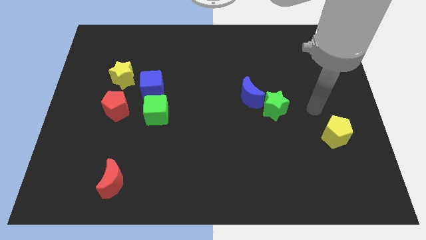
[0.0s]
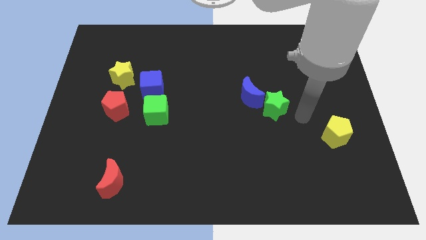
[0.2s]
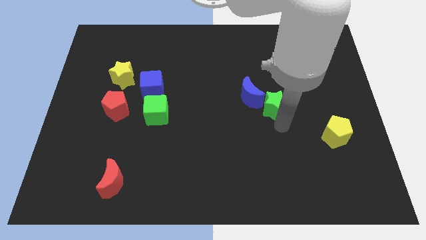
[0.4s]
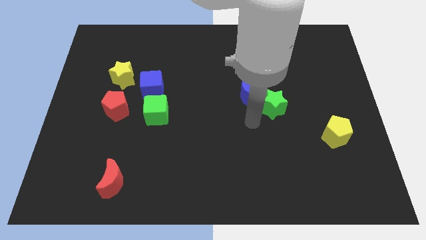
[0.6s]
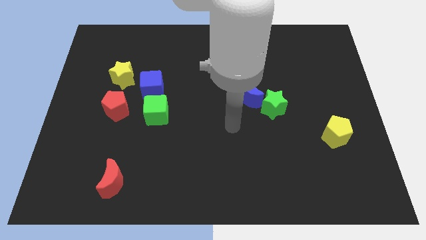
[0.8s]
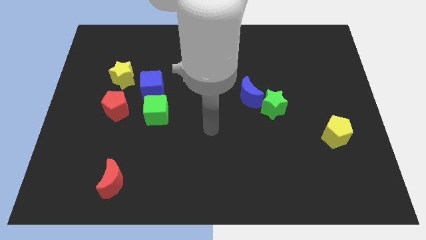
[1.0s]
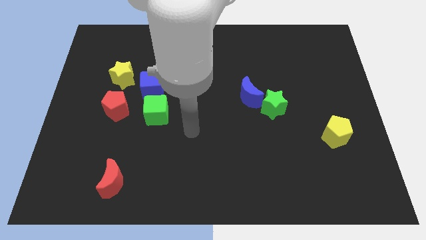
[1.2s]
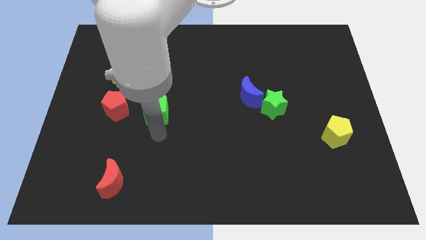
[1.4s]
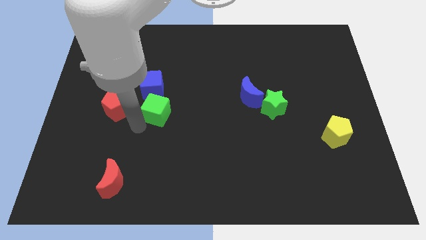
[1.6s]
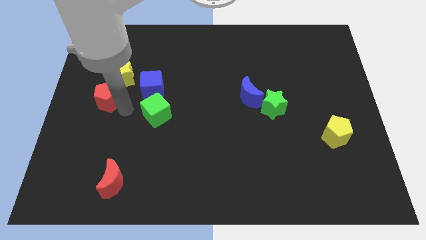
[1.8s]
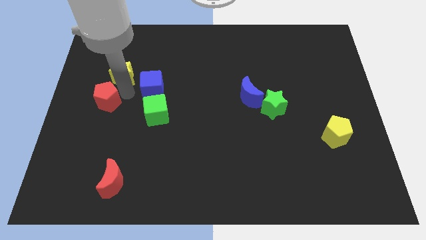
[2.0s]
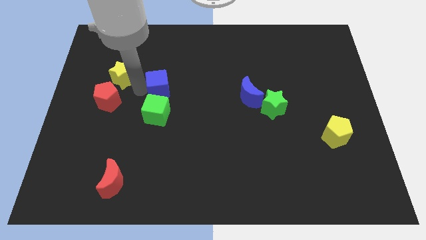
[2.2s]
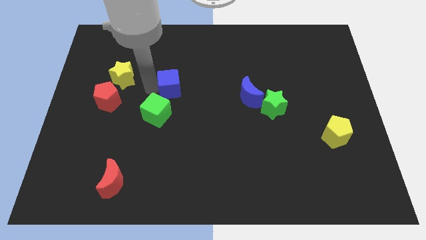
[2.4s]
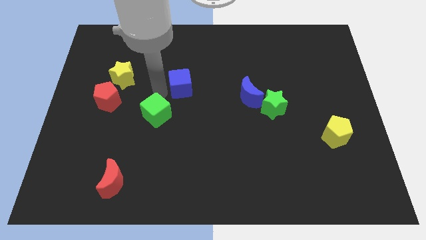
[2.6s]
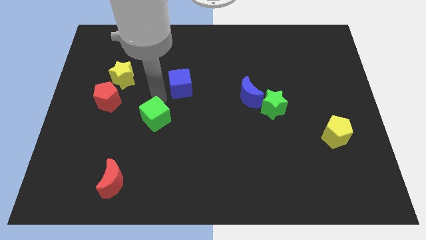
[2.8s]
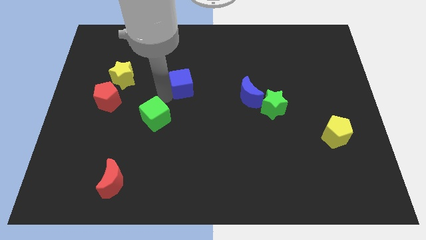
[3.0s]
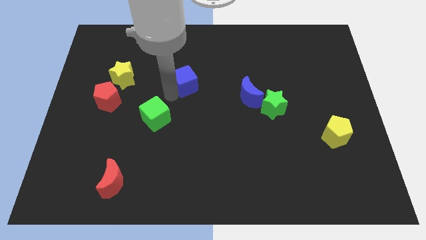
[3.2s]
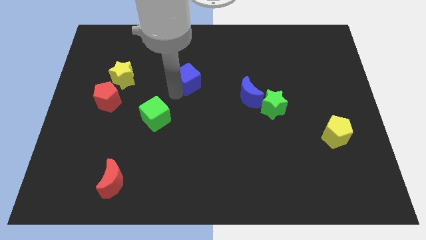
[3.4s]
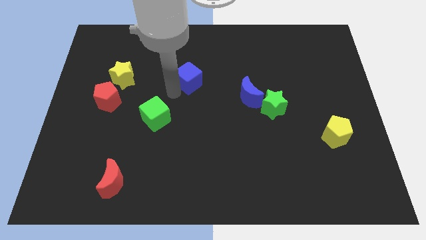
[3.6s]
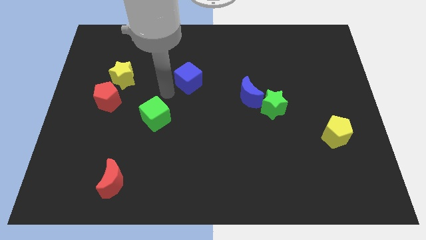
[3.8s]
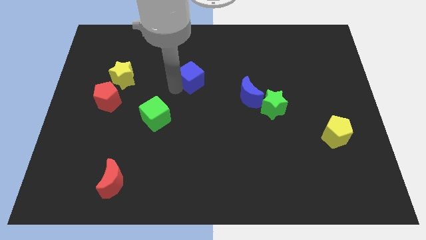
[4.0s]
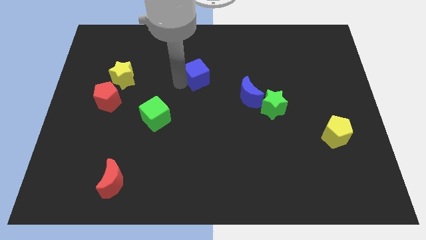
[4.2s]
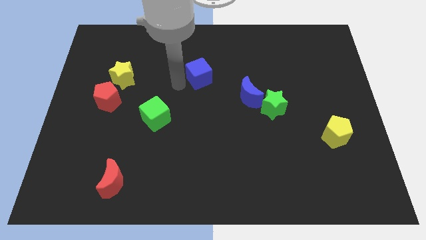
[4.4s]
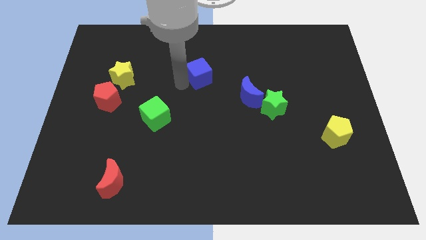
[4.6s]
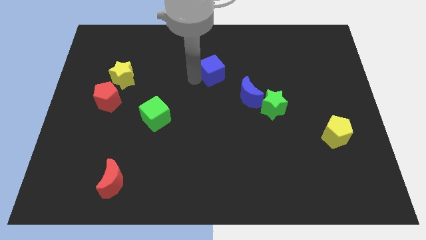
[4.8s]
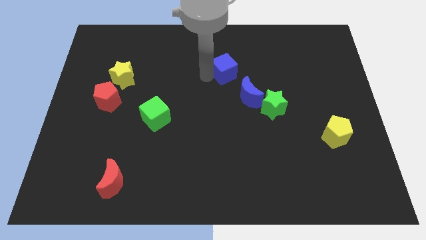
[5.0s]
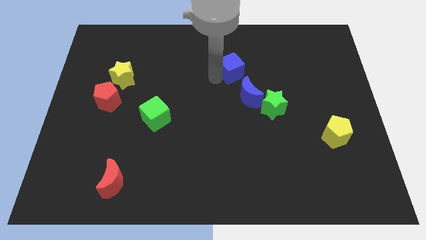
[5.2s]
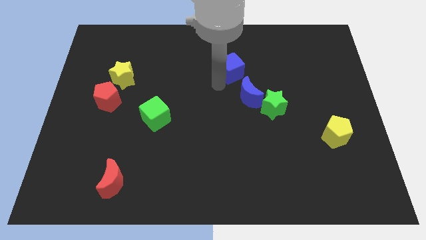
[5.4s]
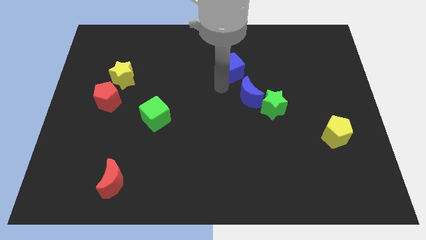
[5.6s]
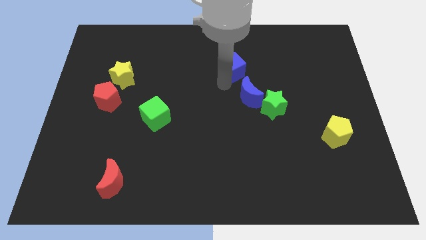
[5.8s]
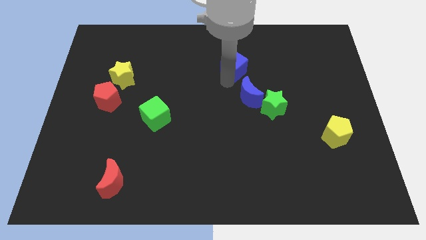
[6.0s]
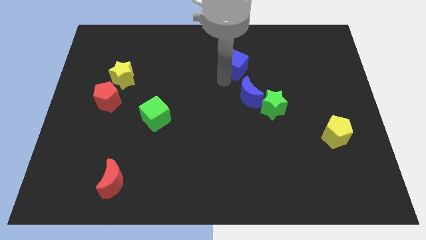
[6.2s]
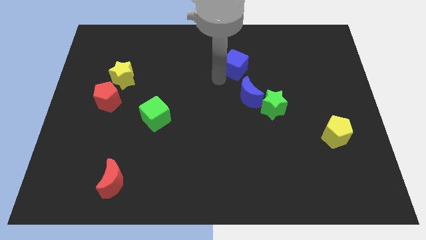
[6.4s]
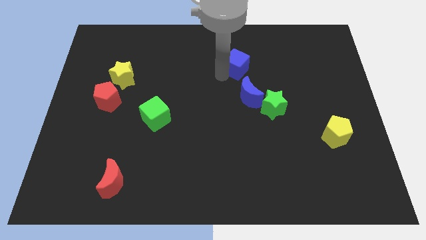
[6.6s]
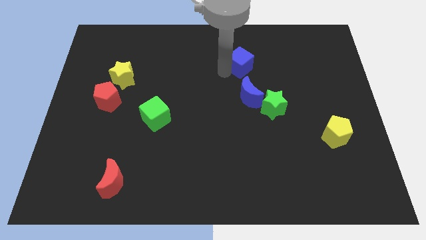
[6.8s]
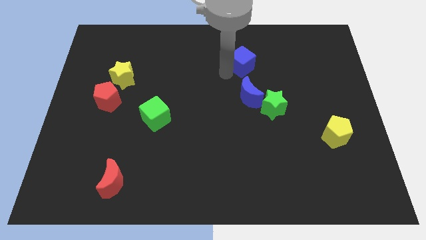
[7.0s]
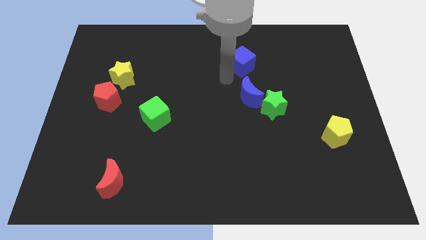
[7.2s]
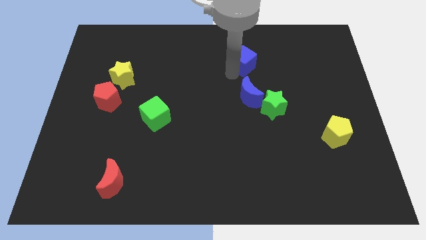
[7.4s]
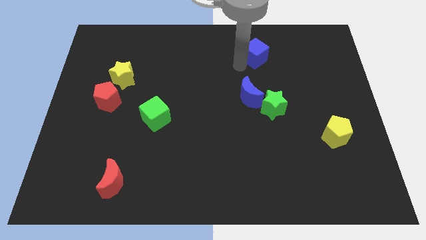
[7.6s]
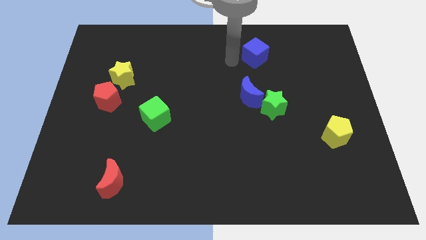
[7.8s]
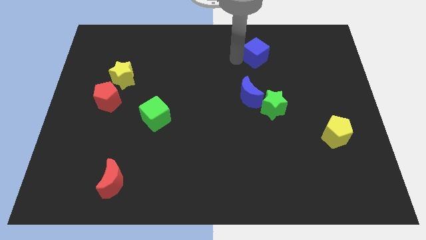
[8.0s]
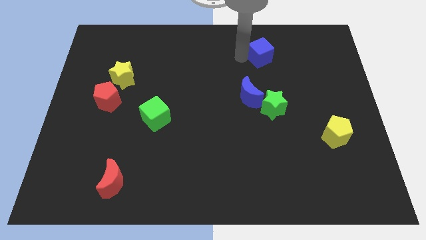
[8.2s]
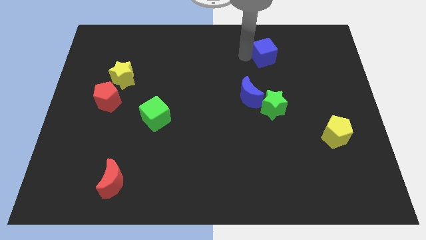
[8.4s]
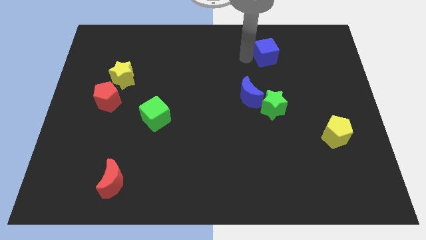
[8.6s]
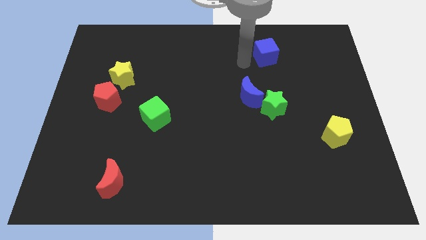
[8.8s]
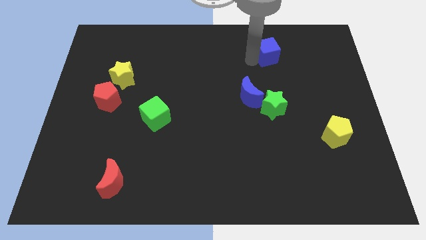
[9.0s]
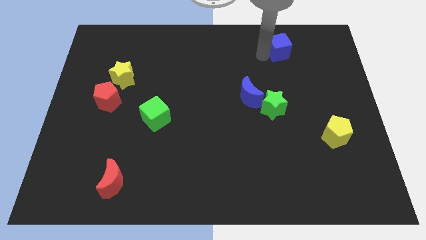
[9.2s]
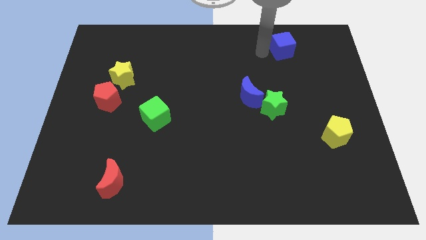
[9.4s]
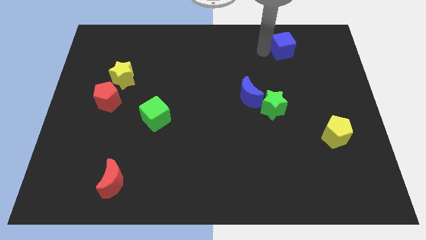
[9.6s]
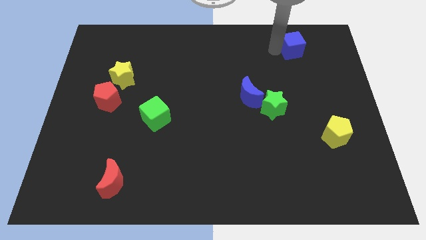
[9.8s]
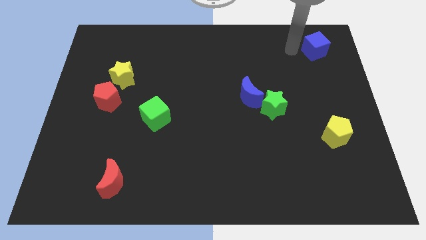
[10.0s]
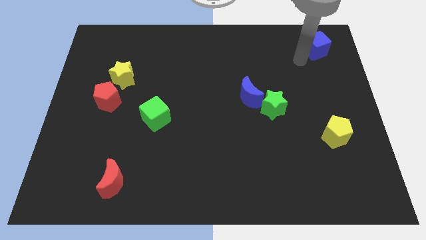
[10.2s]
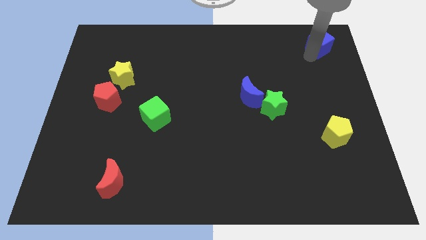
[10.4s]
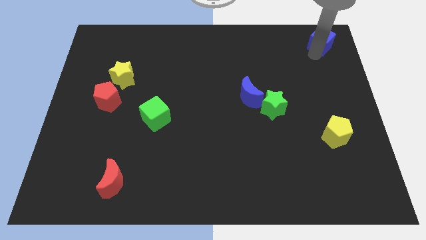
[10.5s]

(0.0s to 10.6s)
move the blue cube to the upper right corner
